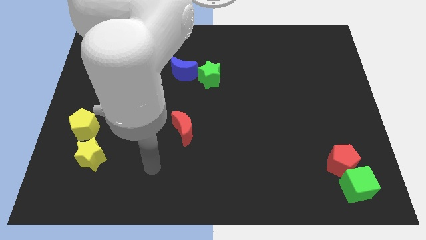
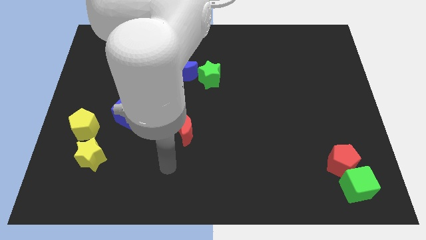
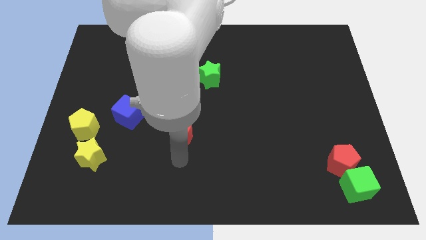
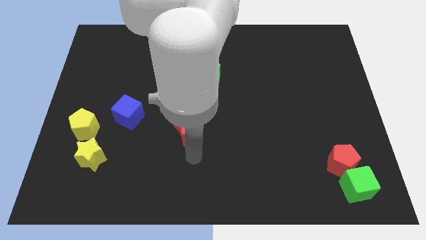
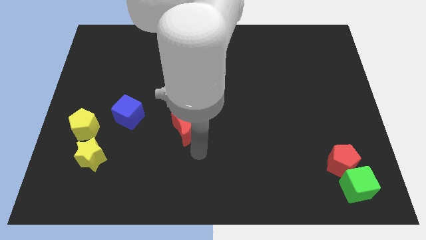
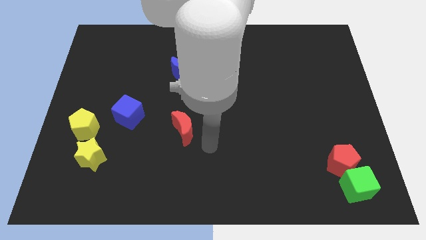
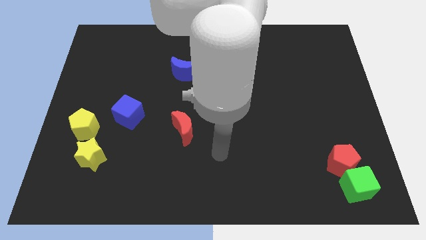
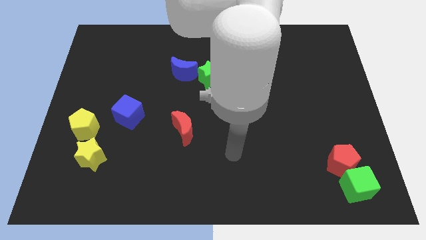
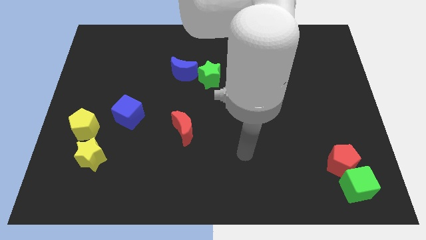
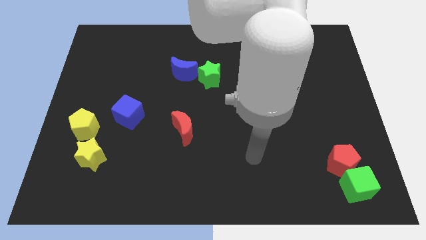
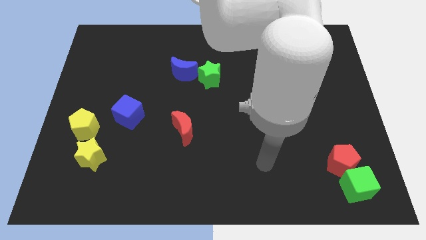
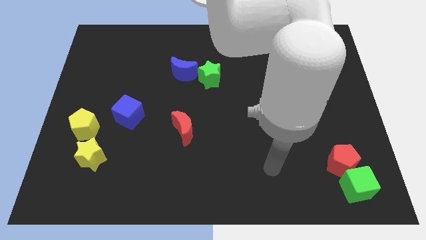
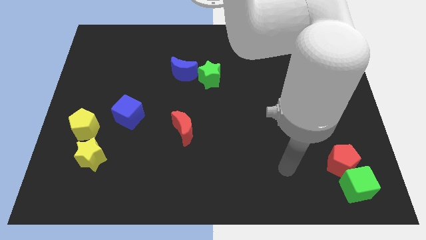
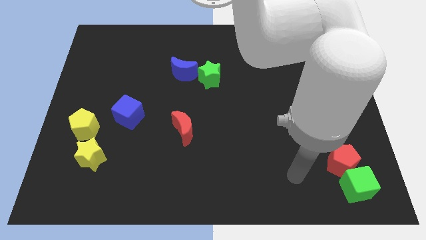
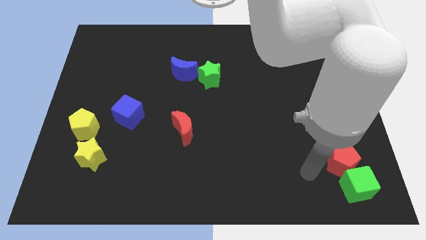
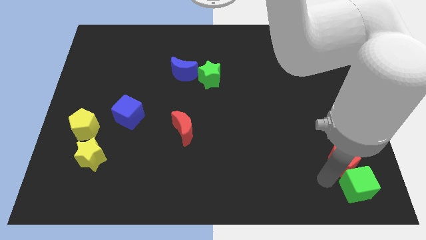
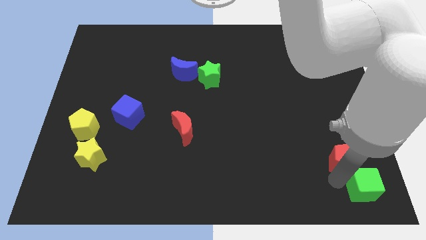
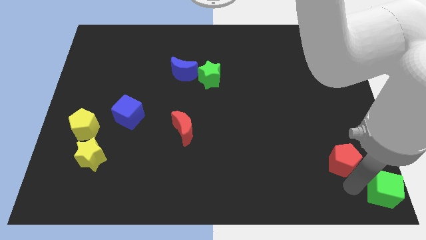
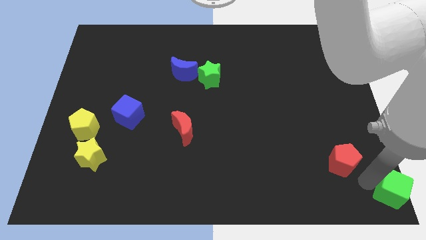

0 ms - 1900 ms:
pull the red pentagon apart from the green cube

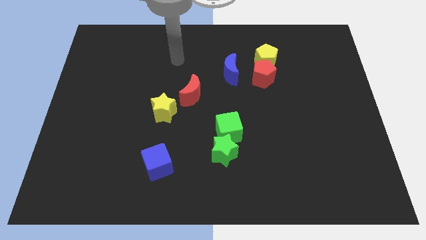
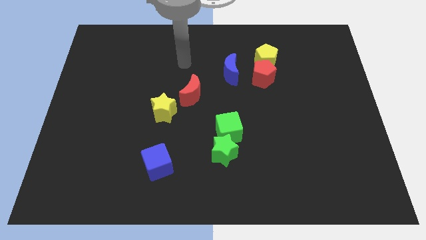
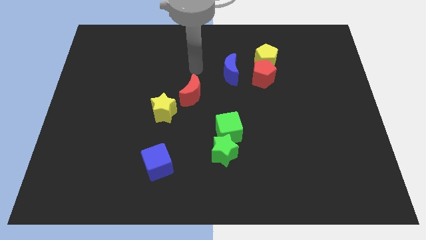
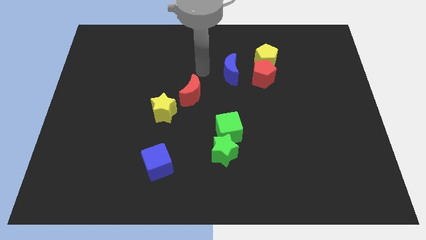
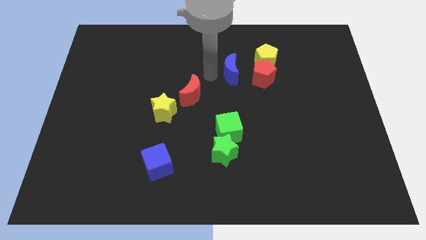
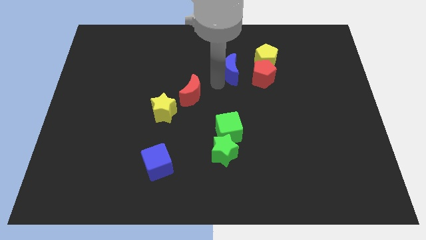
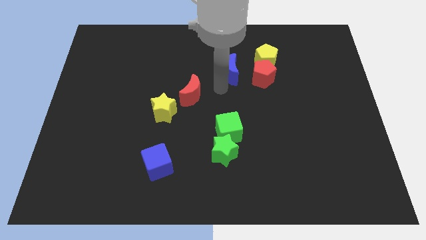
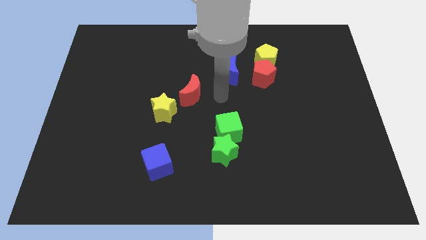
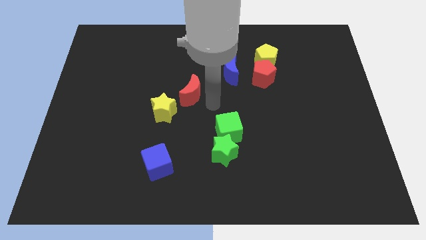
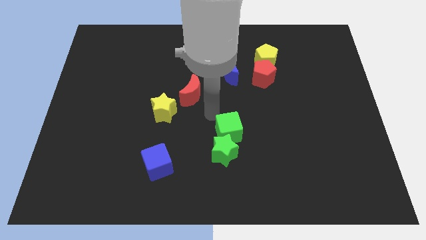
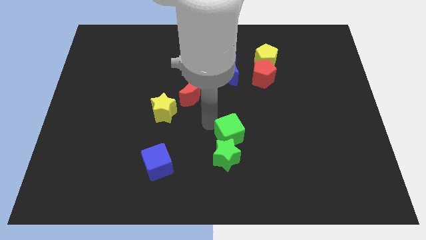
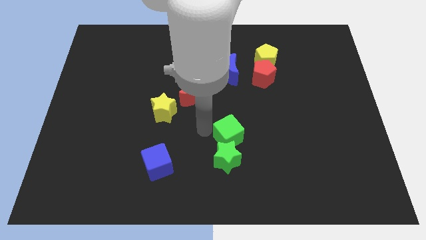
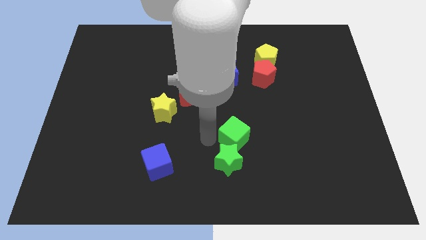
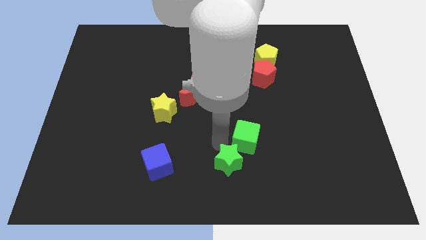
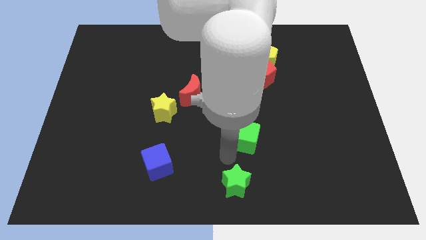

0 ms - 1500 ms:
separate the green cube from the green star

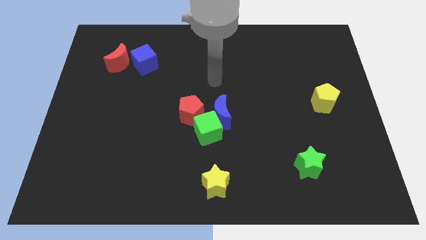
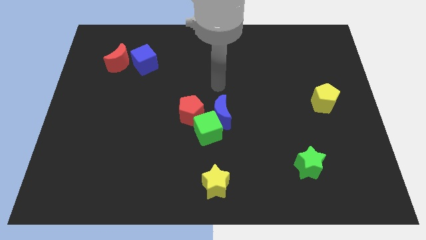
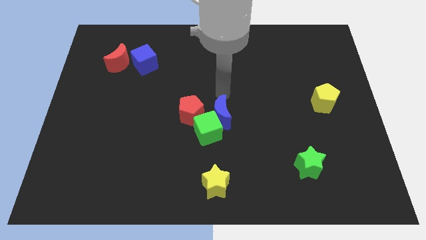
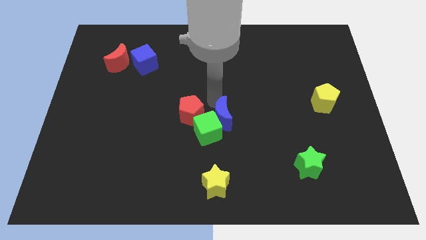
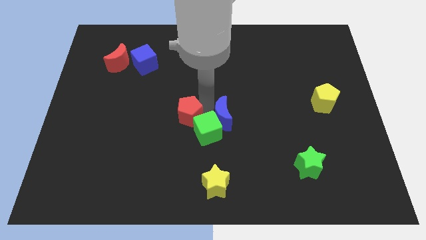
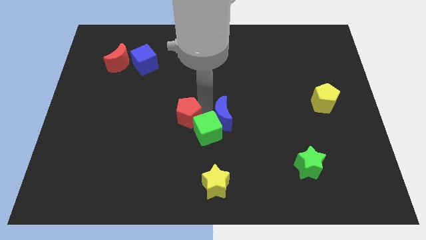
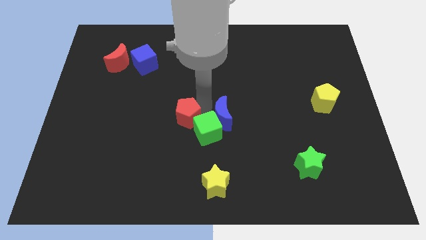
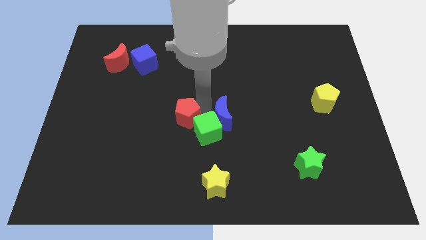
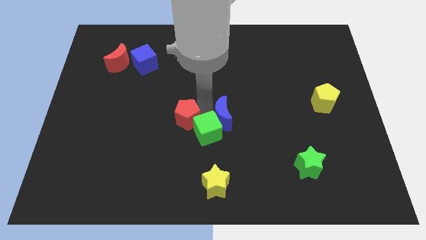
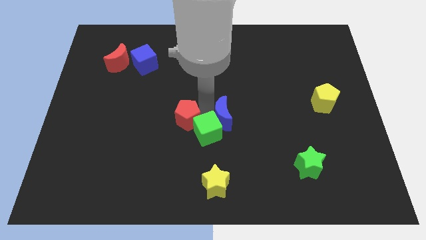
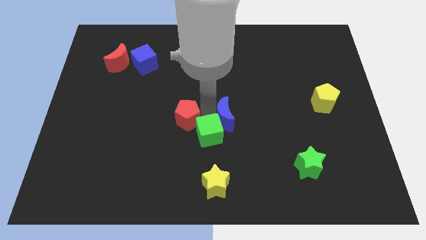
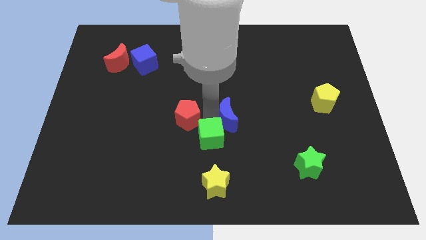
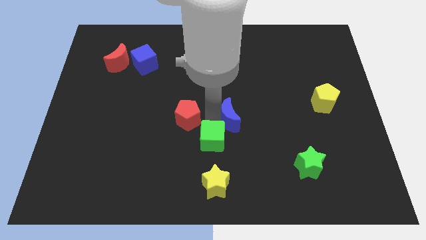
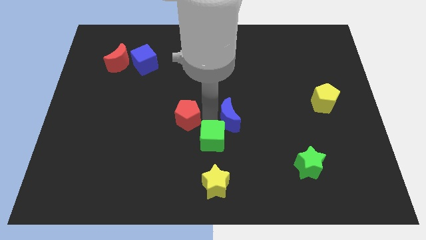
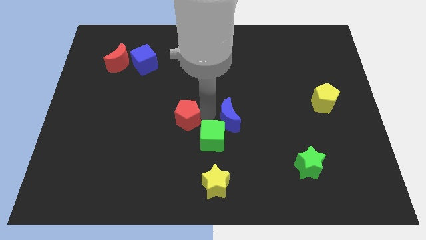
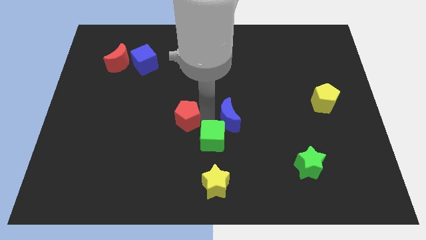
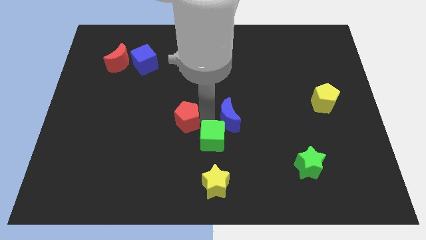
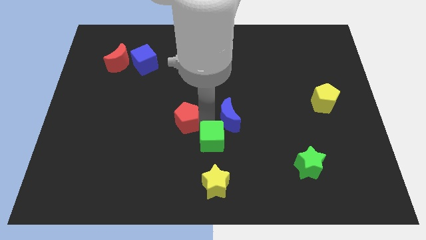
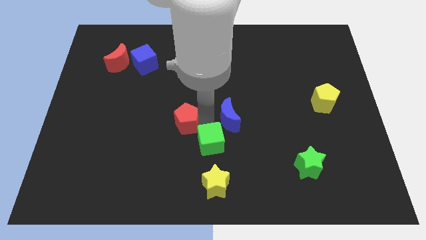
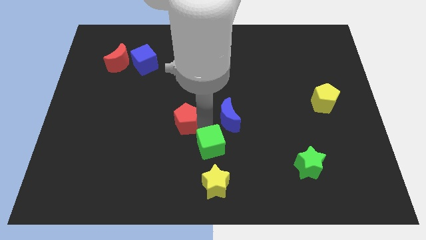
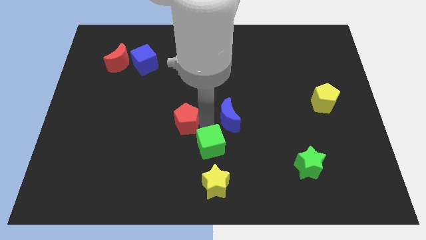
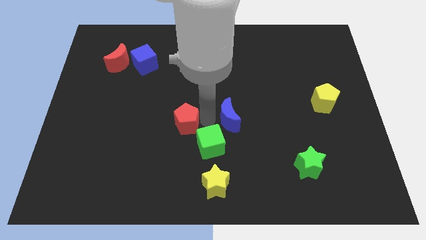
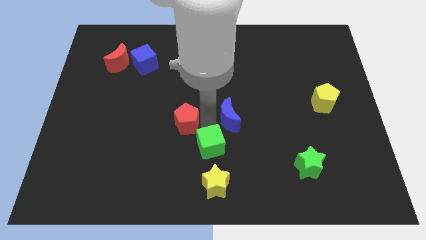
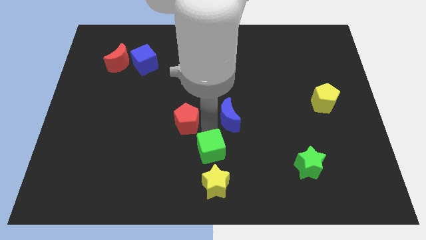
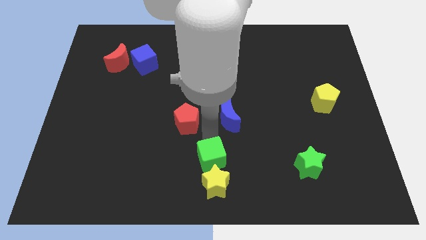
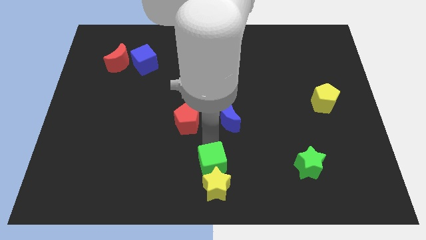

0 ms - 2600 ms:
move the green cube away from the blue moon and red pentagon

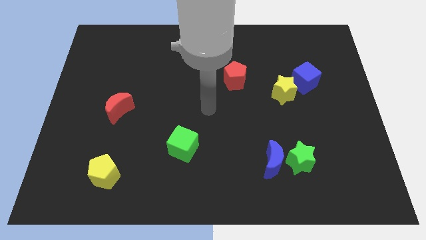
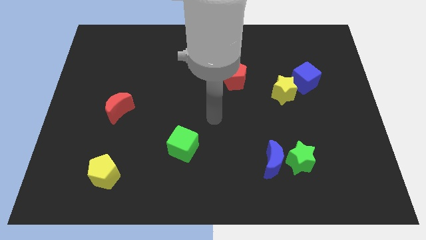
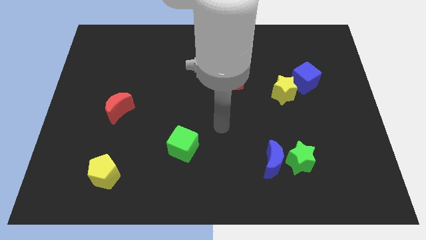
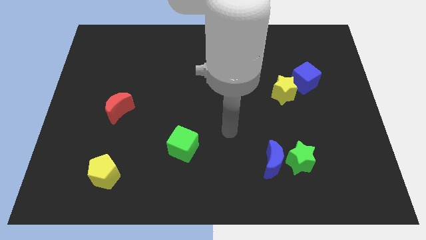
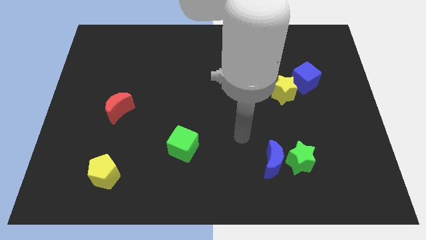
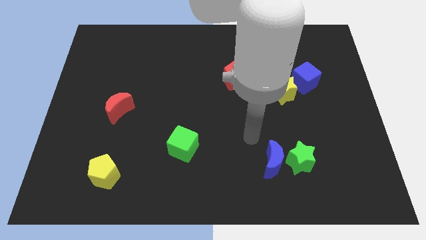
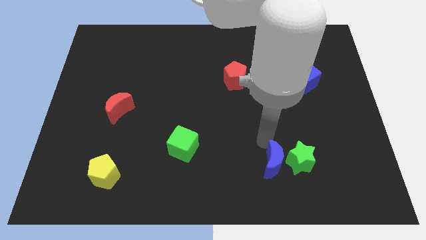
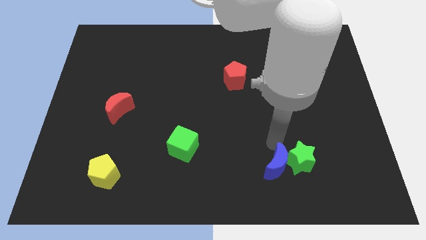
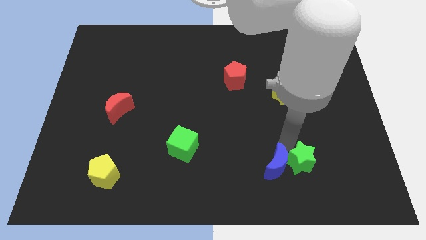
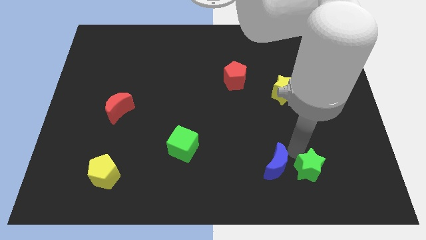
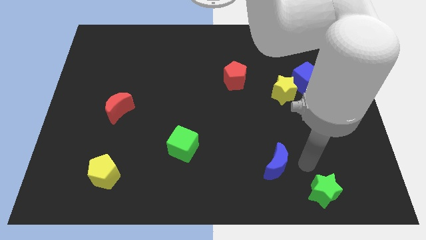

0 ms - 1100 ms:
separate the blue moon from the green star

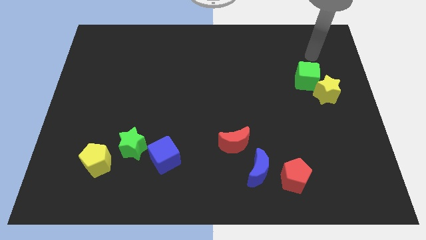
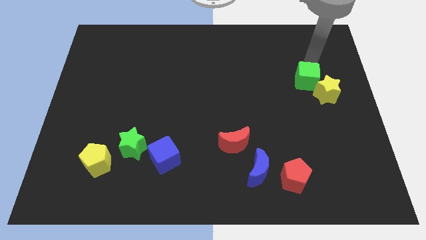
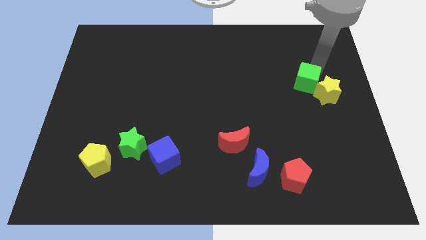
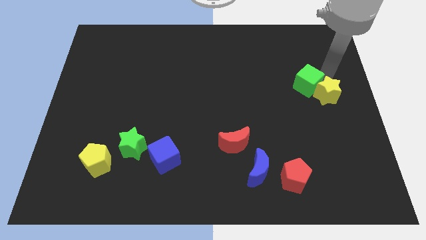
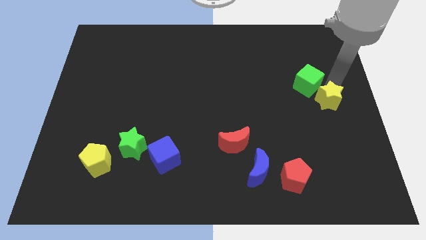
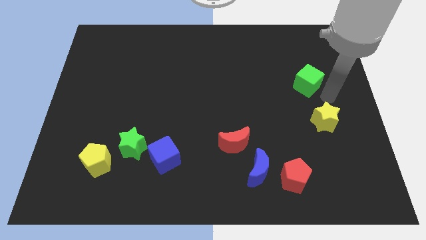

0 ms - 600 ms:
move the green cube away from the yellow star

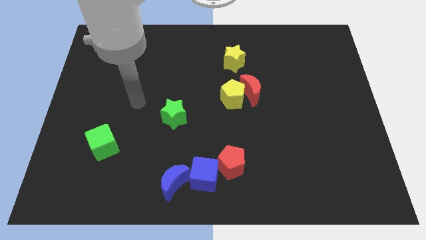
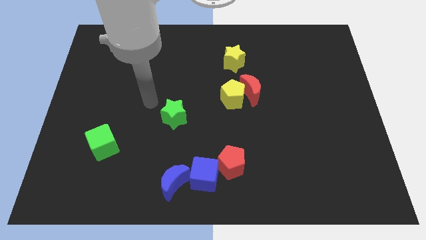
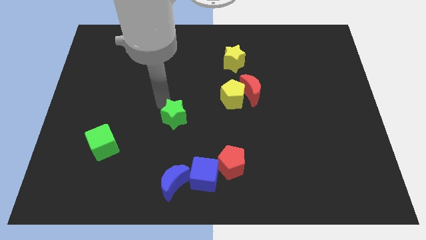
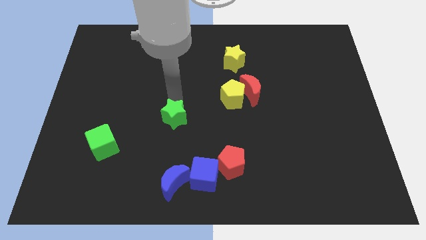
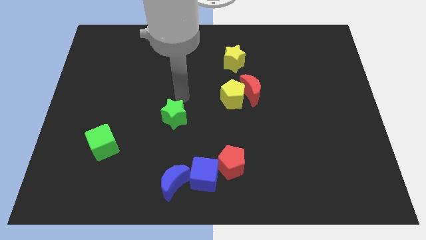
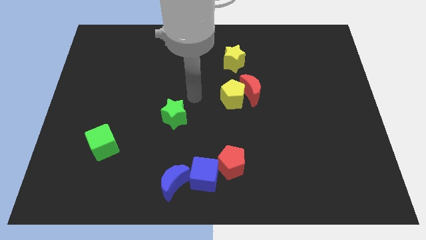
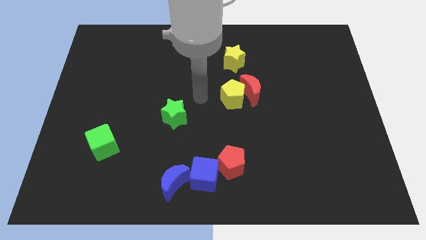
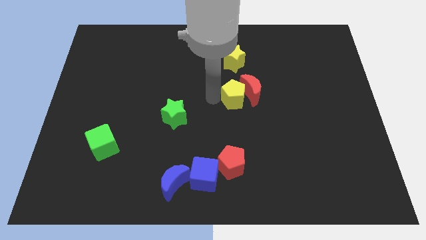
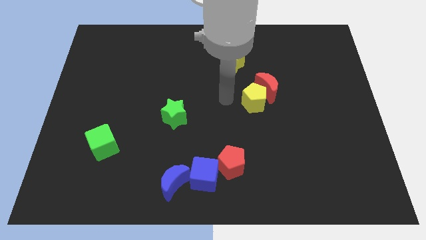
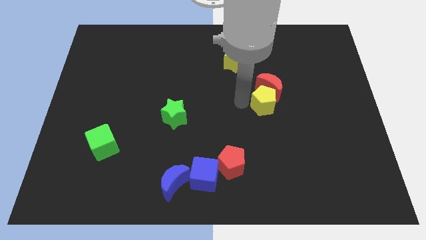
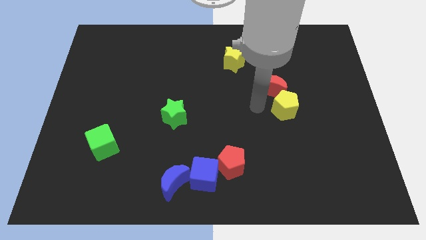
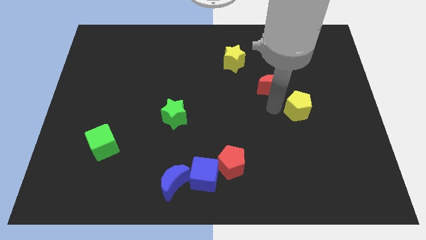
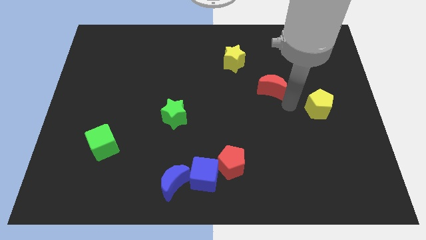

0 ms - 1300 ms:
move the red moon away from the yellow pentagon

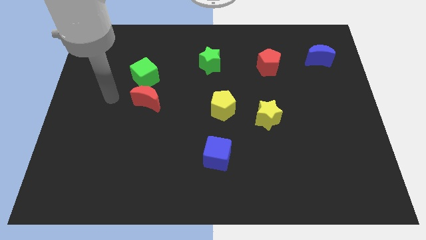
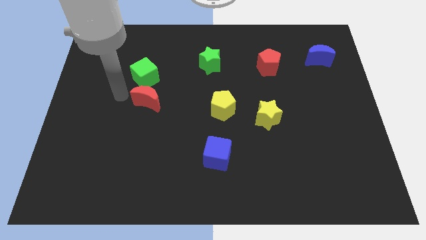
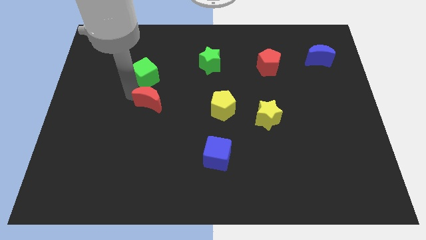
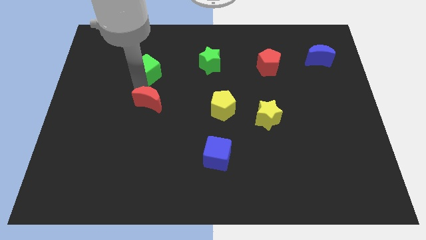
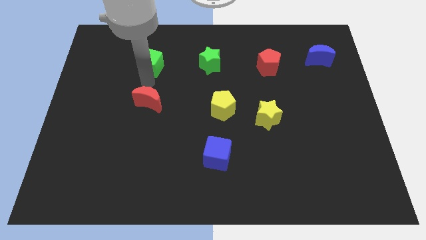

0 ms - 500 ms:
separate the red moon from the green cube
